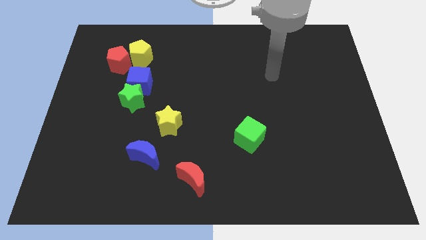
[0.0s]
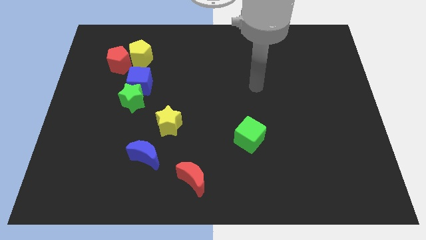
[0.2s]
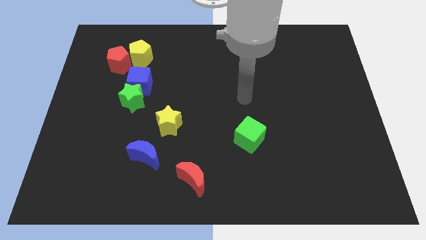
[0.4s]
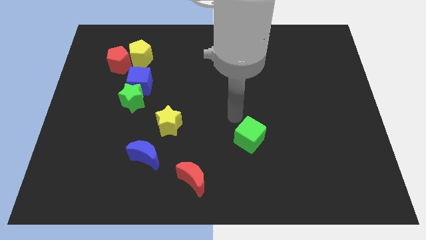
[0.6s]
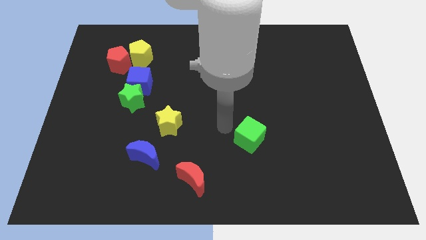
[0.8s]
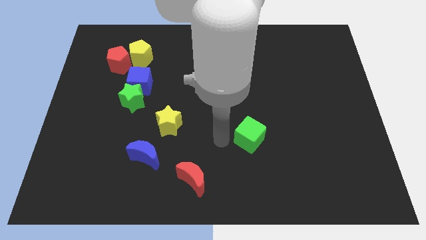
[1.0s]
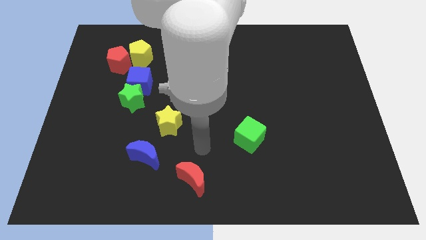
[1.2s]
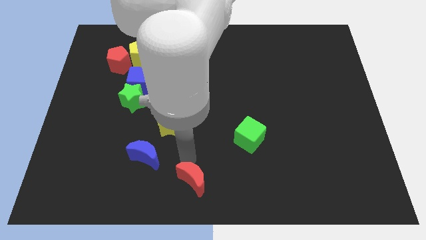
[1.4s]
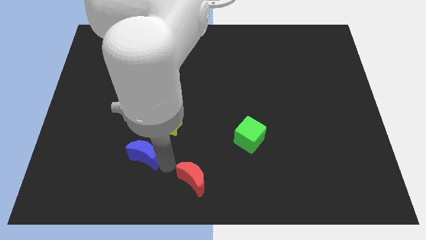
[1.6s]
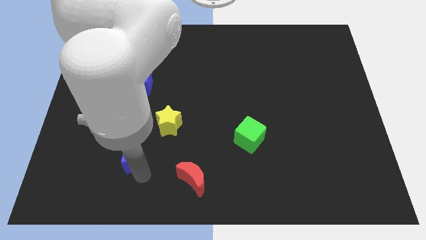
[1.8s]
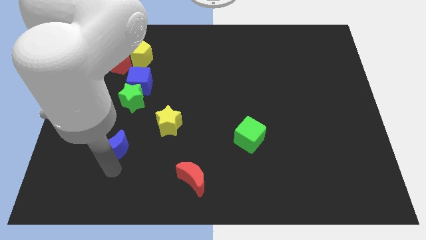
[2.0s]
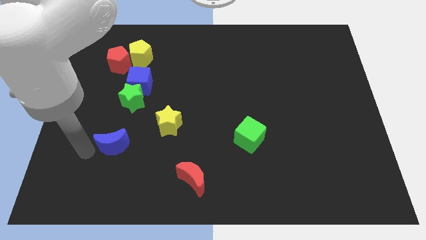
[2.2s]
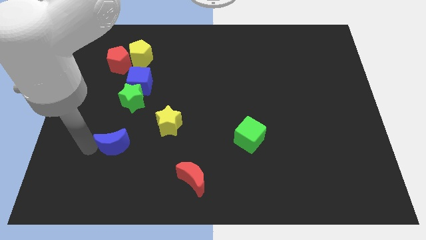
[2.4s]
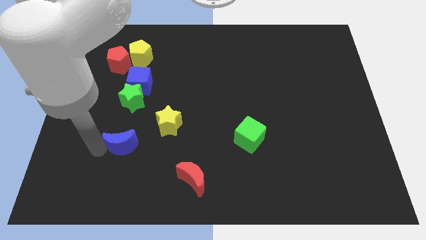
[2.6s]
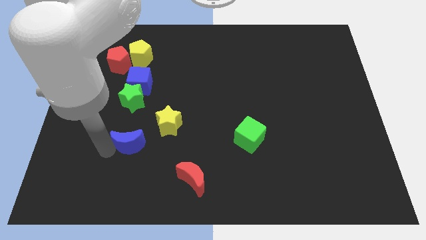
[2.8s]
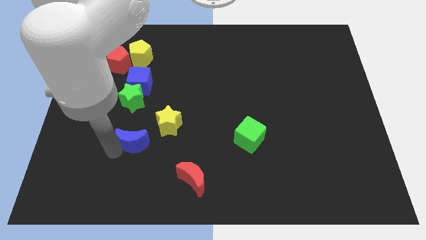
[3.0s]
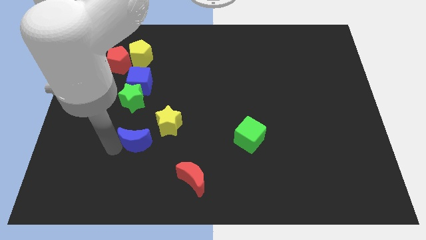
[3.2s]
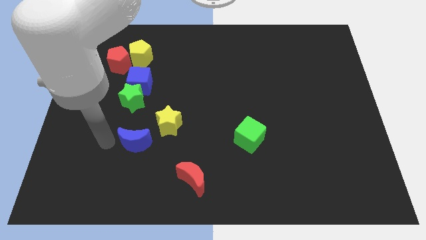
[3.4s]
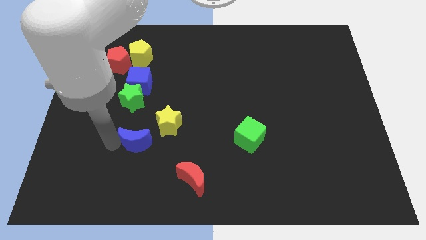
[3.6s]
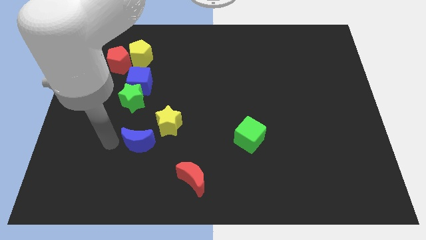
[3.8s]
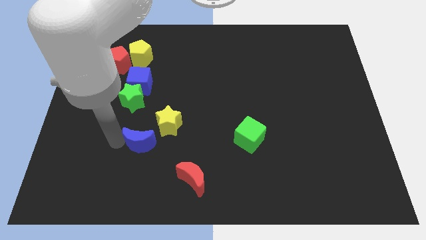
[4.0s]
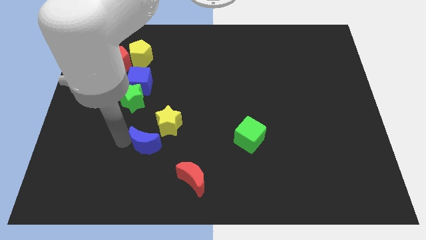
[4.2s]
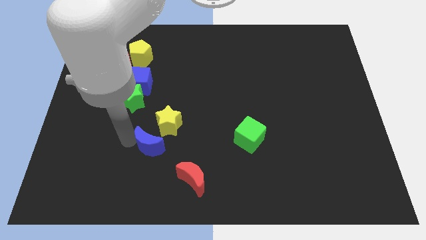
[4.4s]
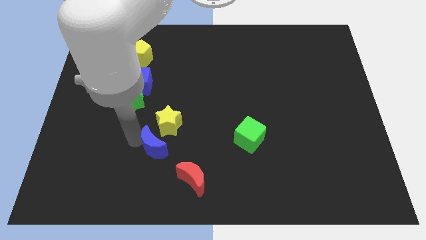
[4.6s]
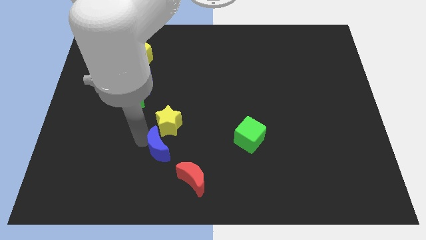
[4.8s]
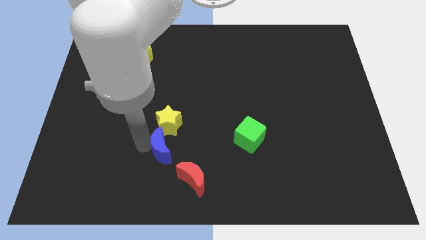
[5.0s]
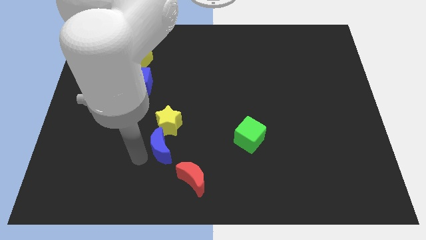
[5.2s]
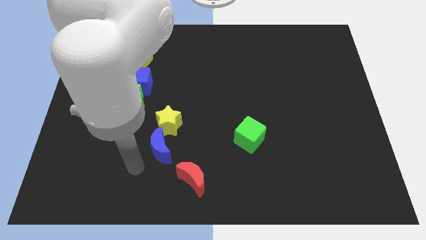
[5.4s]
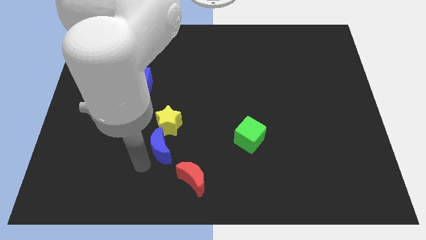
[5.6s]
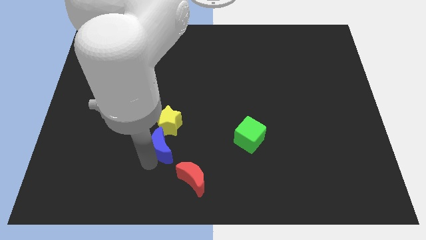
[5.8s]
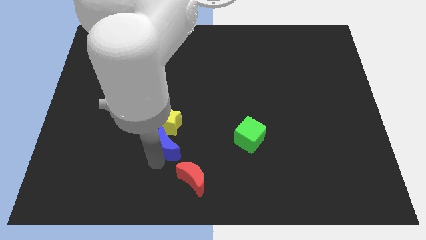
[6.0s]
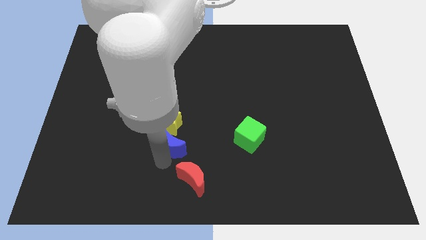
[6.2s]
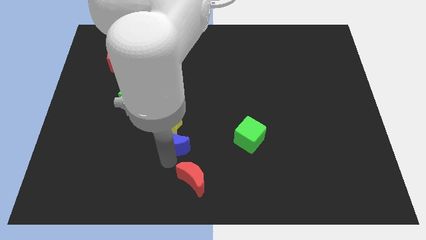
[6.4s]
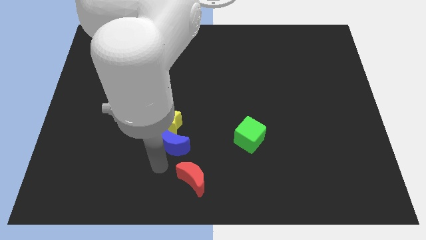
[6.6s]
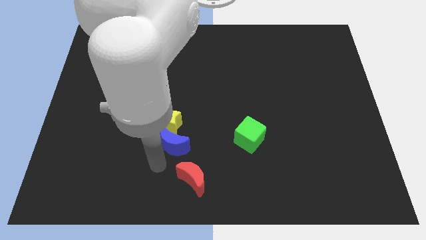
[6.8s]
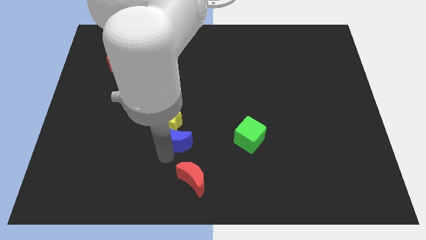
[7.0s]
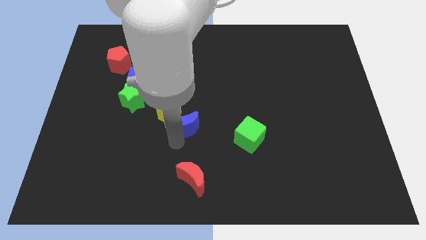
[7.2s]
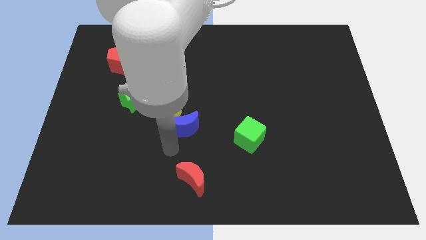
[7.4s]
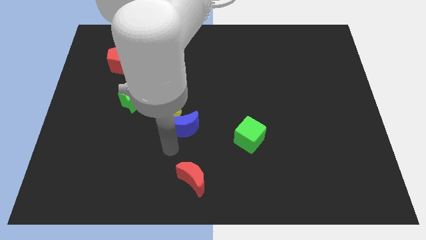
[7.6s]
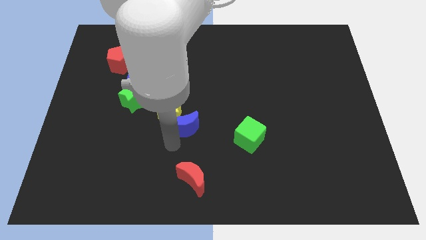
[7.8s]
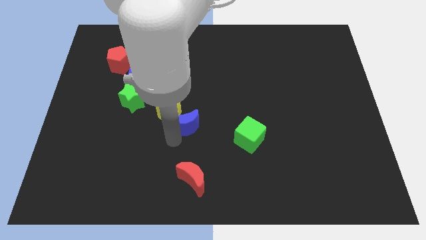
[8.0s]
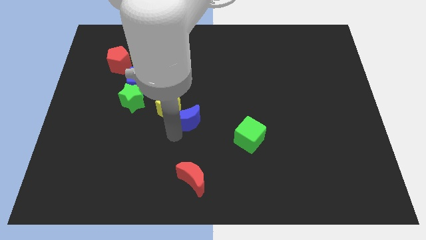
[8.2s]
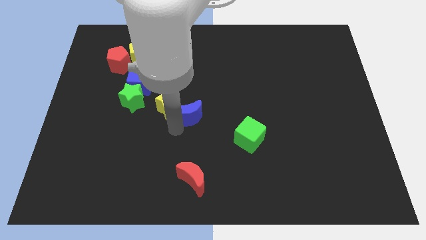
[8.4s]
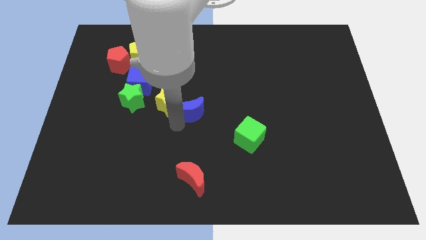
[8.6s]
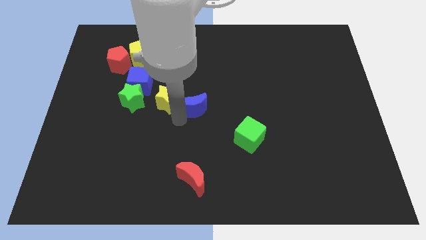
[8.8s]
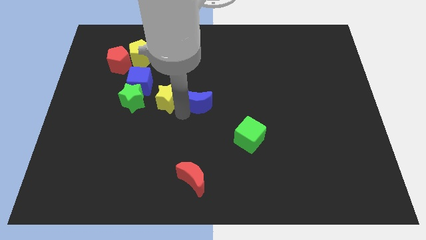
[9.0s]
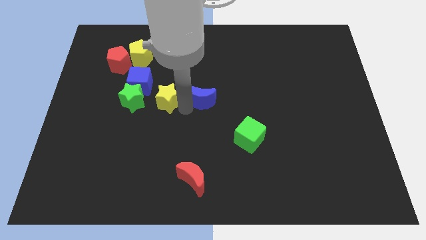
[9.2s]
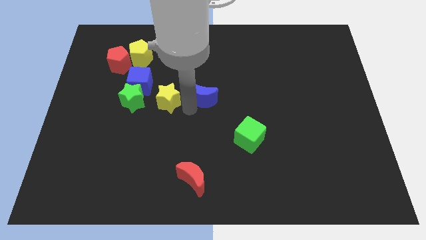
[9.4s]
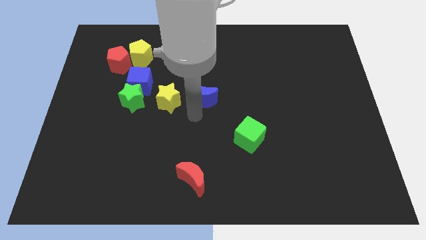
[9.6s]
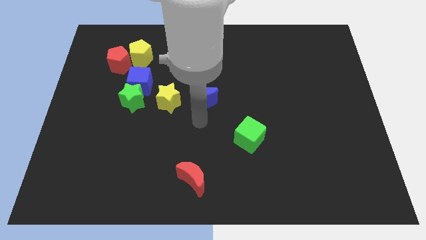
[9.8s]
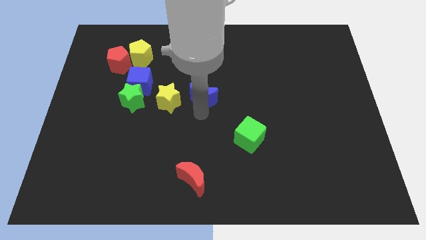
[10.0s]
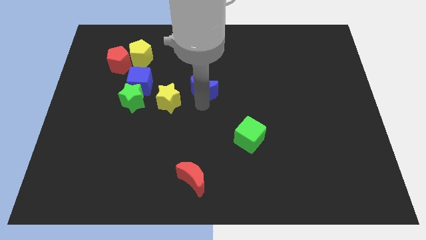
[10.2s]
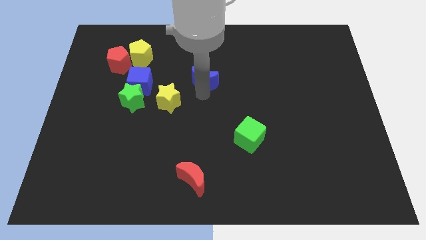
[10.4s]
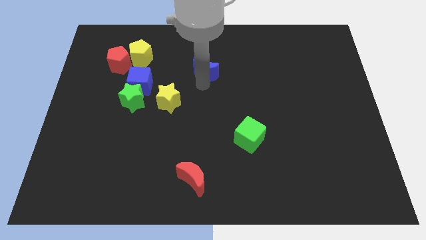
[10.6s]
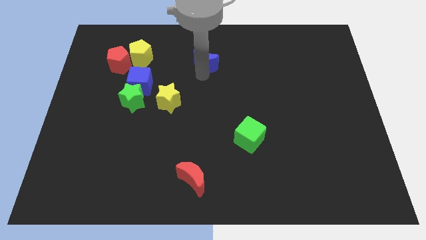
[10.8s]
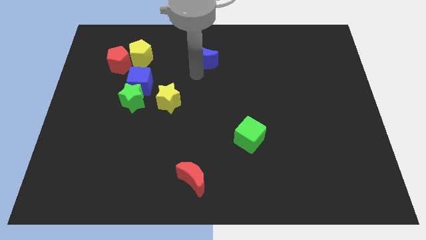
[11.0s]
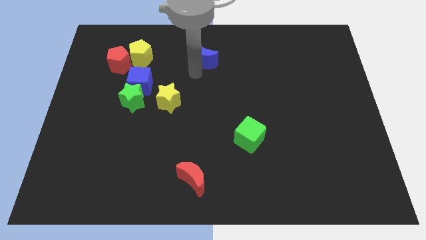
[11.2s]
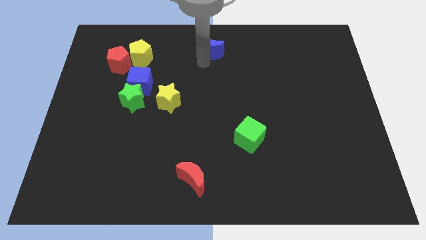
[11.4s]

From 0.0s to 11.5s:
push the blue moon to the towards your base

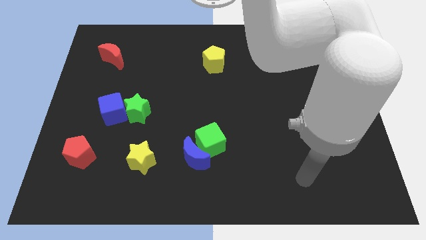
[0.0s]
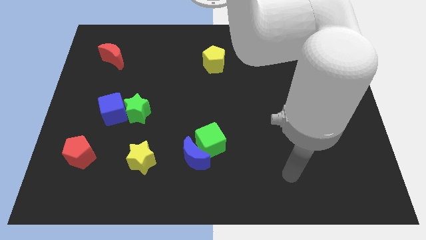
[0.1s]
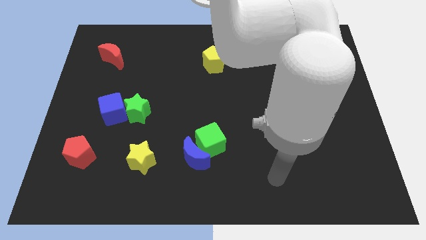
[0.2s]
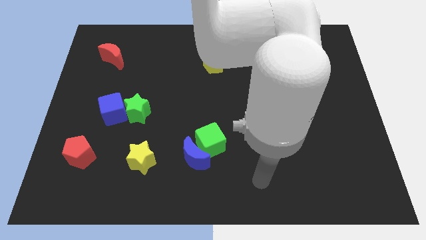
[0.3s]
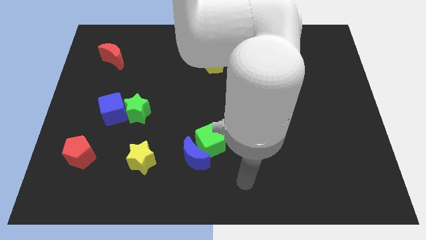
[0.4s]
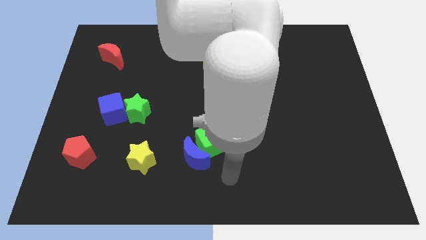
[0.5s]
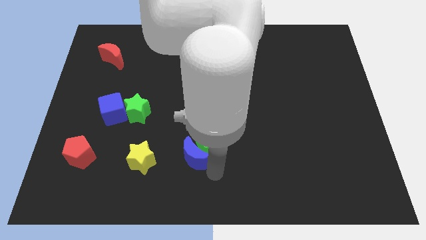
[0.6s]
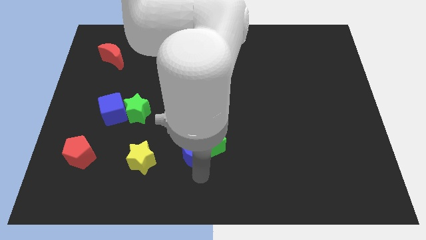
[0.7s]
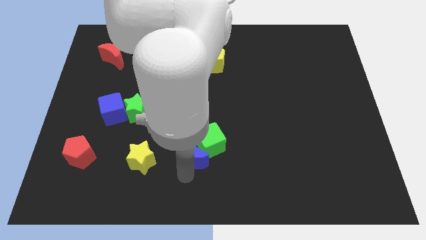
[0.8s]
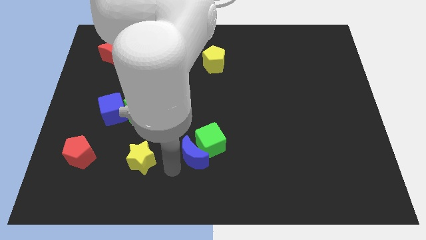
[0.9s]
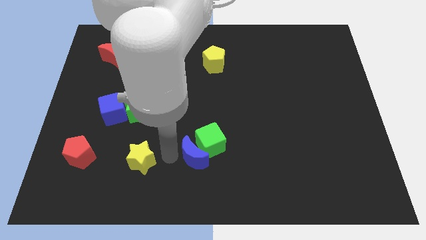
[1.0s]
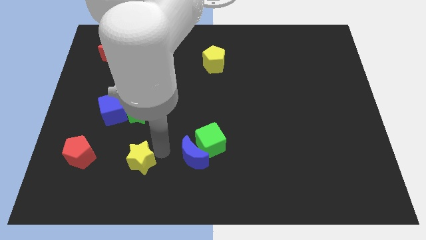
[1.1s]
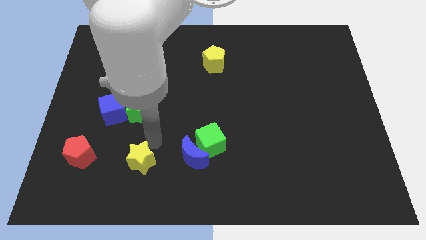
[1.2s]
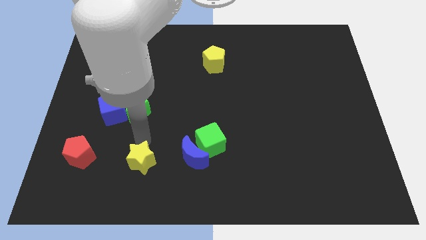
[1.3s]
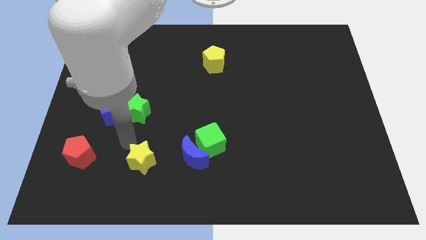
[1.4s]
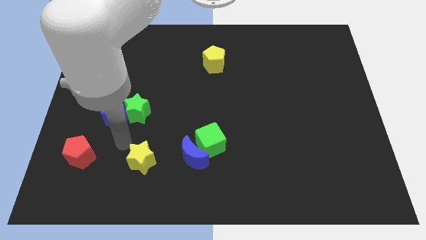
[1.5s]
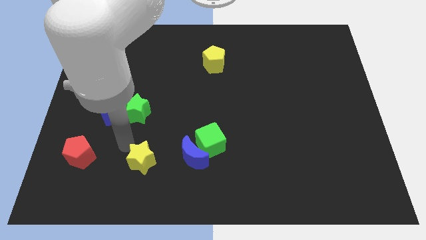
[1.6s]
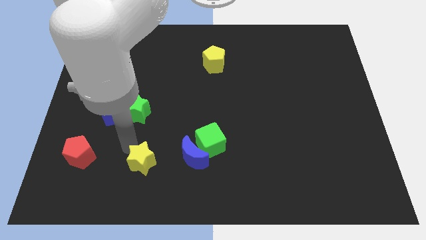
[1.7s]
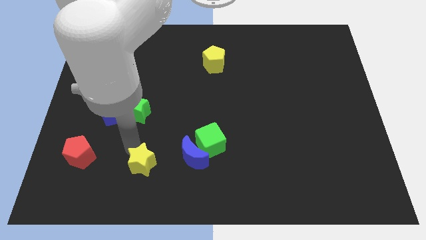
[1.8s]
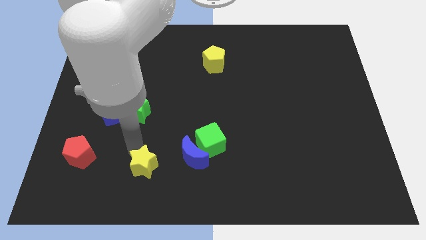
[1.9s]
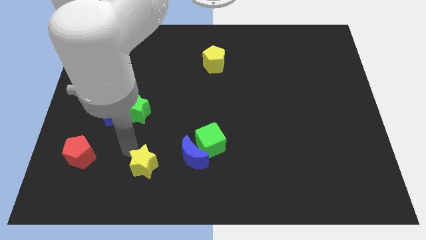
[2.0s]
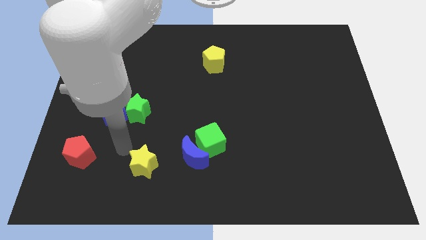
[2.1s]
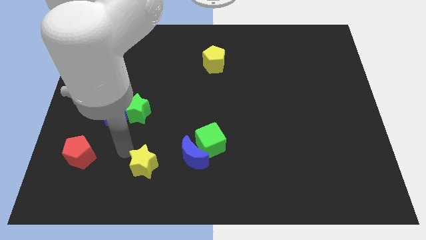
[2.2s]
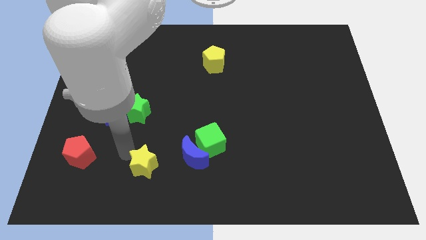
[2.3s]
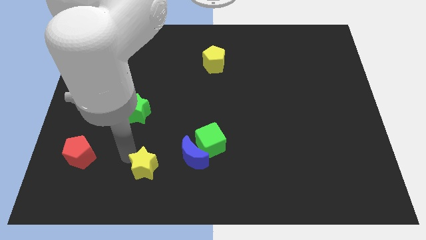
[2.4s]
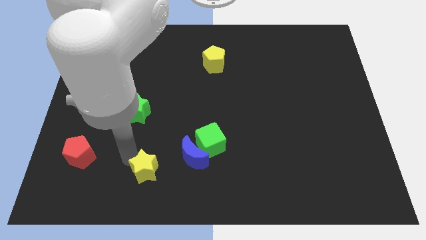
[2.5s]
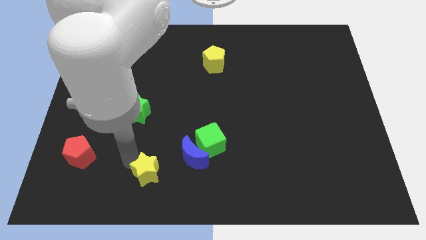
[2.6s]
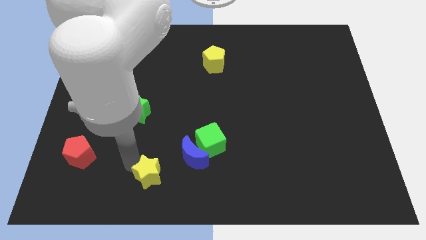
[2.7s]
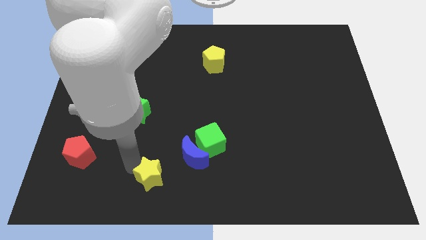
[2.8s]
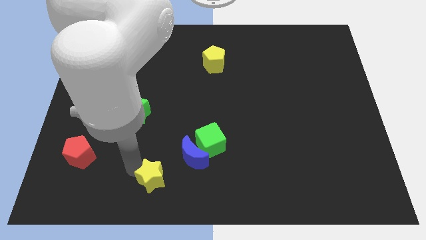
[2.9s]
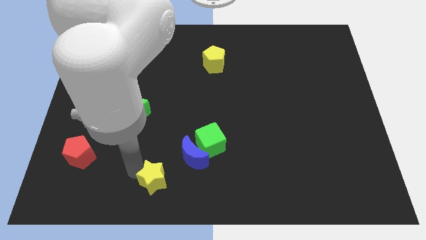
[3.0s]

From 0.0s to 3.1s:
move the yellow star to the bottom
